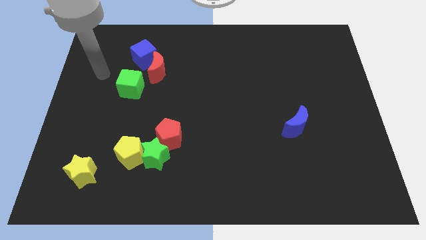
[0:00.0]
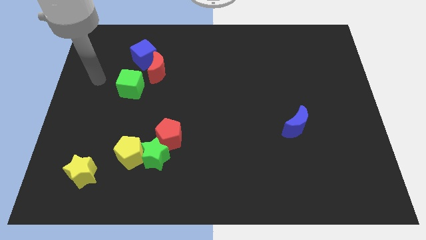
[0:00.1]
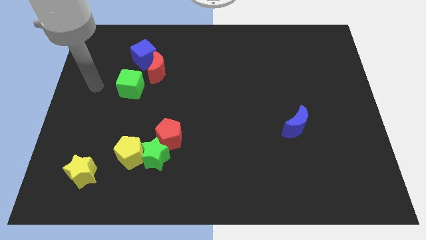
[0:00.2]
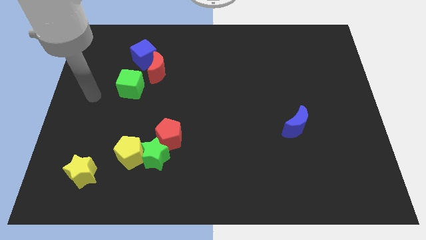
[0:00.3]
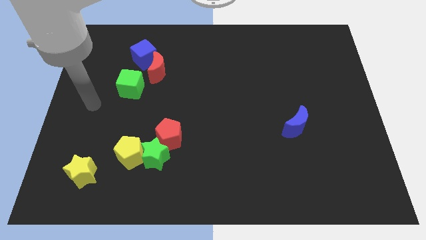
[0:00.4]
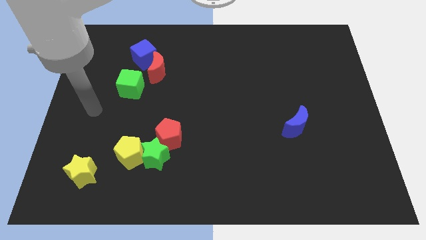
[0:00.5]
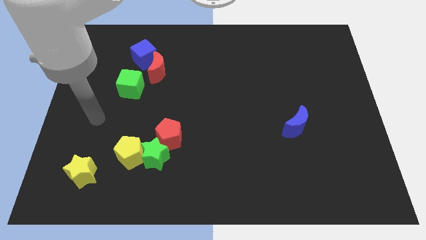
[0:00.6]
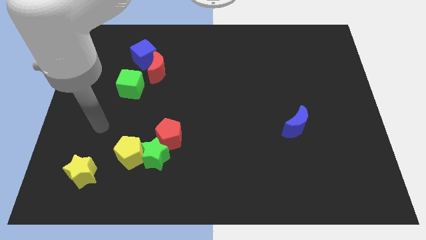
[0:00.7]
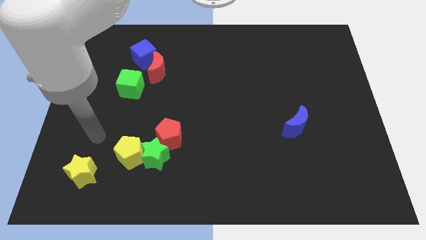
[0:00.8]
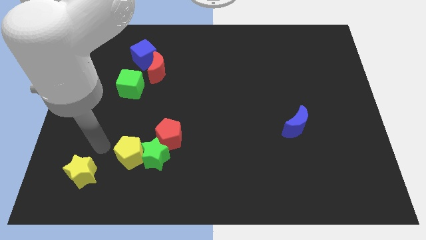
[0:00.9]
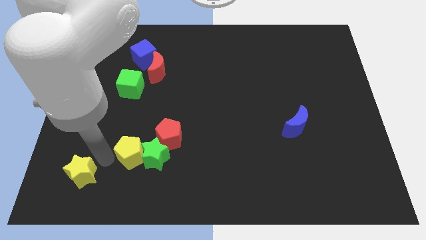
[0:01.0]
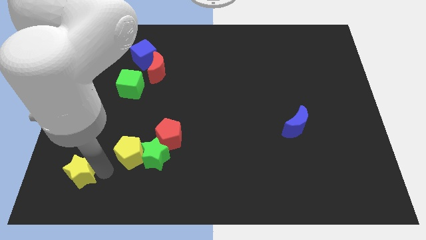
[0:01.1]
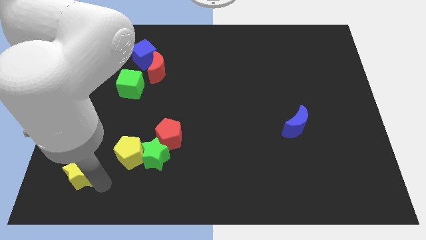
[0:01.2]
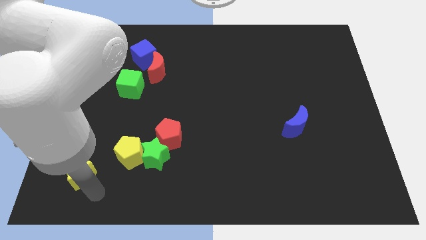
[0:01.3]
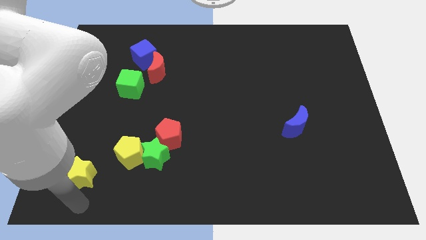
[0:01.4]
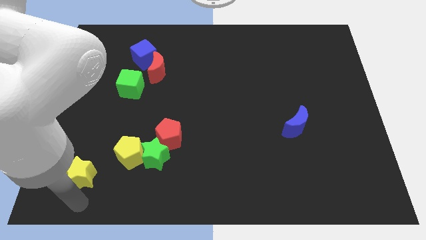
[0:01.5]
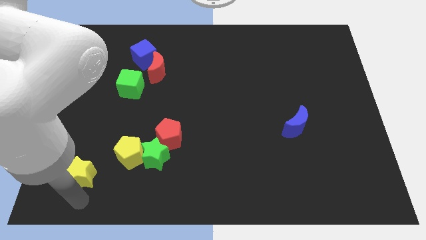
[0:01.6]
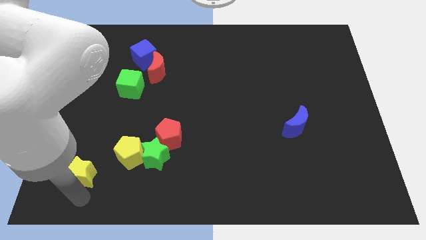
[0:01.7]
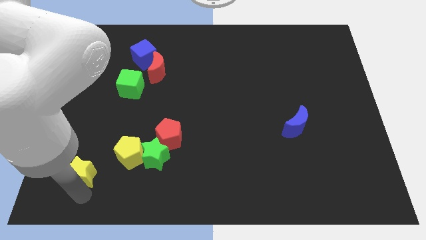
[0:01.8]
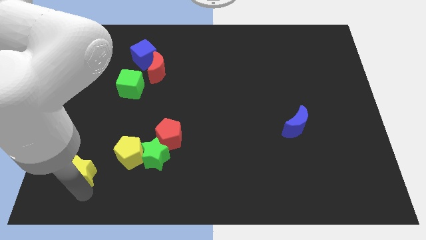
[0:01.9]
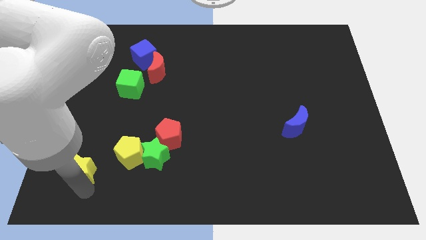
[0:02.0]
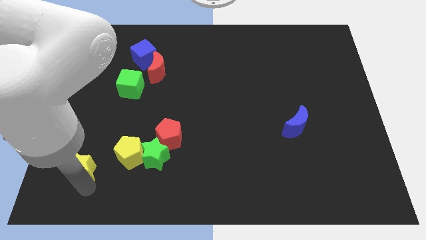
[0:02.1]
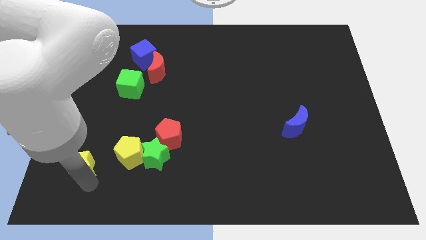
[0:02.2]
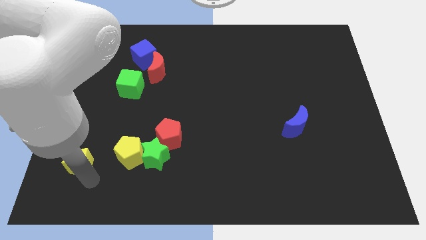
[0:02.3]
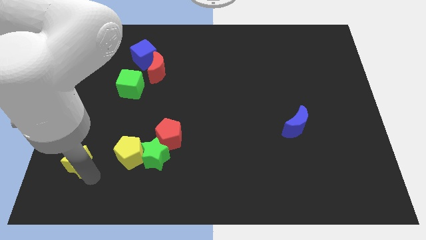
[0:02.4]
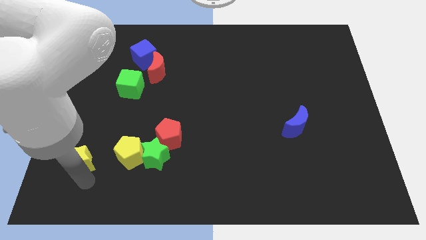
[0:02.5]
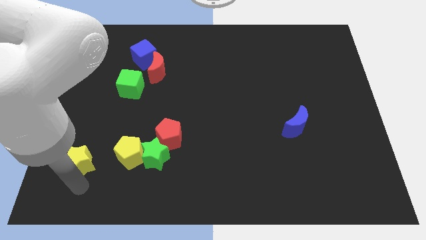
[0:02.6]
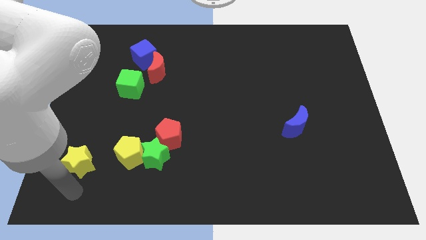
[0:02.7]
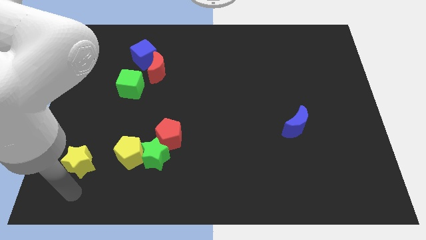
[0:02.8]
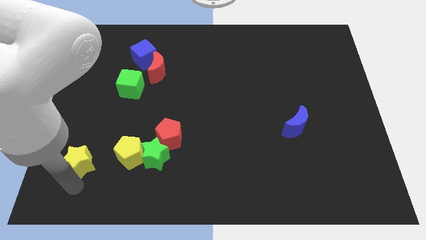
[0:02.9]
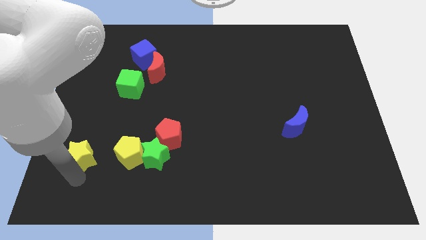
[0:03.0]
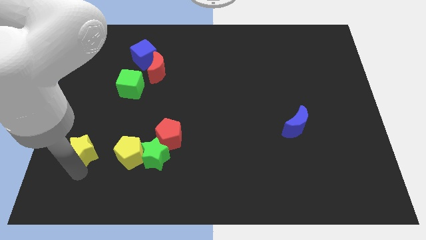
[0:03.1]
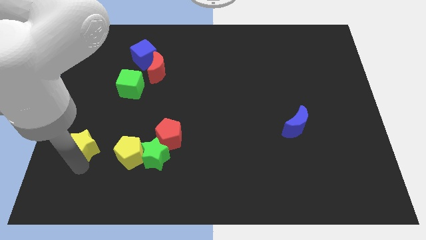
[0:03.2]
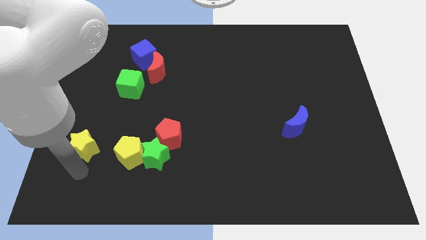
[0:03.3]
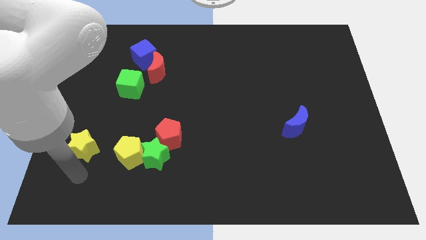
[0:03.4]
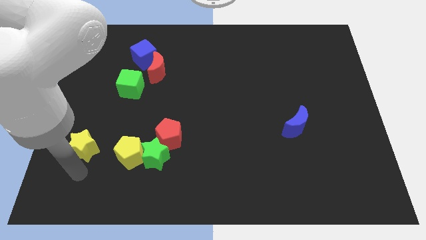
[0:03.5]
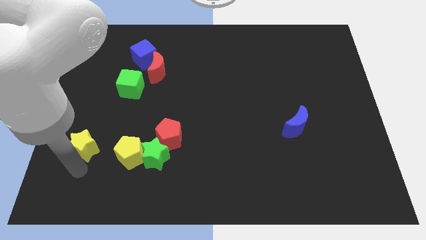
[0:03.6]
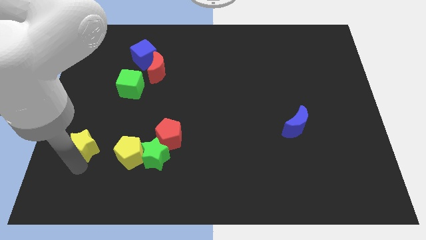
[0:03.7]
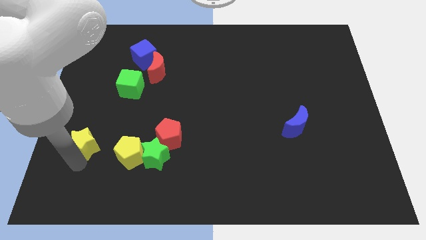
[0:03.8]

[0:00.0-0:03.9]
slide the yellow star a little bit up

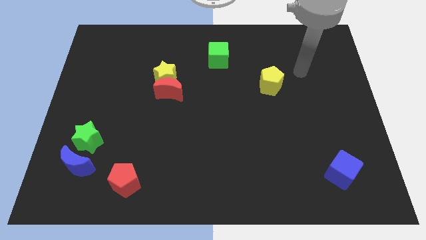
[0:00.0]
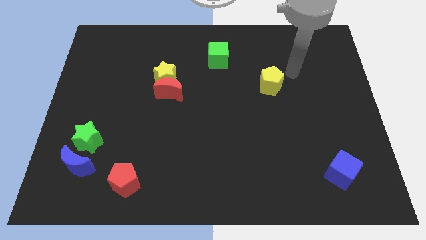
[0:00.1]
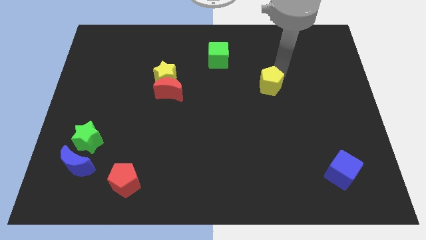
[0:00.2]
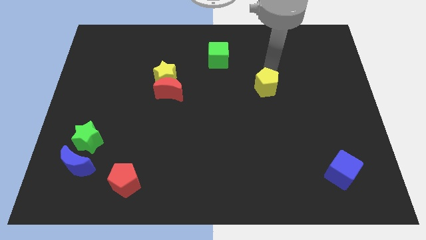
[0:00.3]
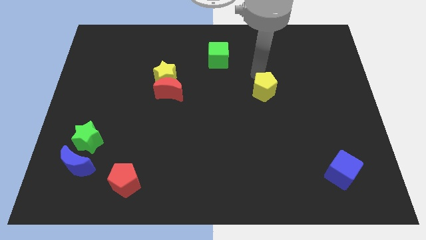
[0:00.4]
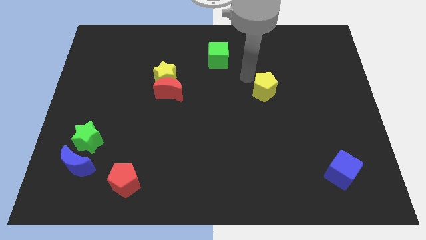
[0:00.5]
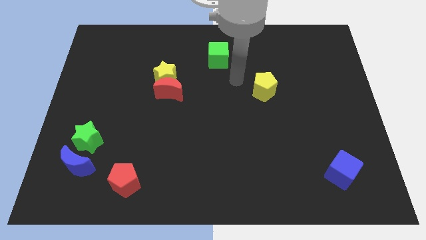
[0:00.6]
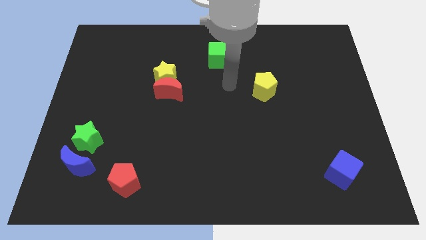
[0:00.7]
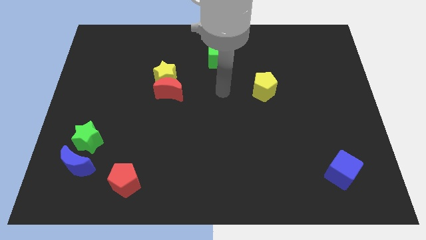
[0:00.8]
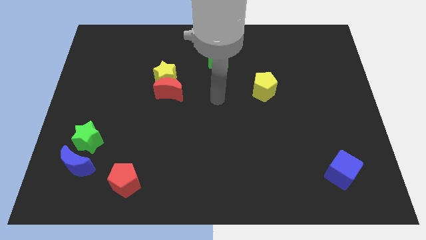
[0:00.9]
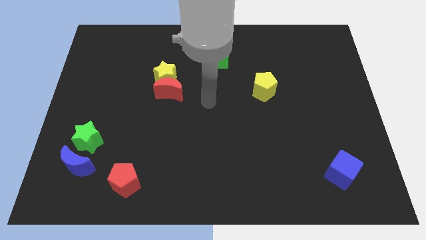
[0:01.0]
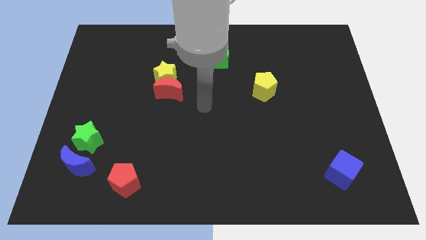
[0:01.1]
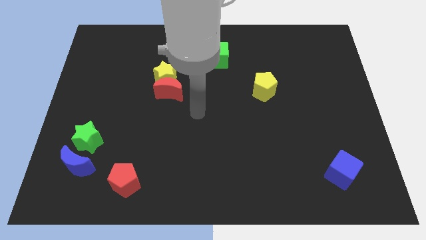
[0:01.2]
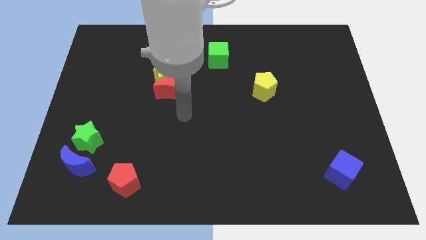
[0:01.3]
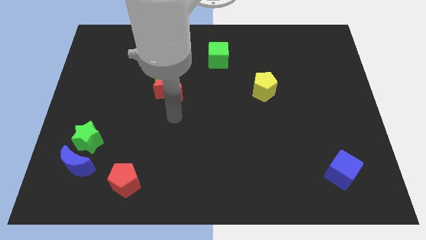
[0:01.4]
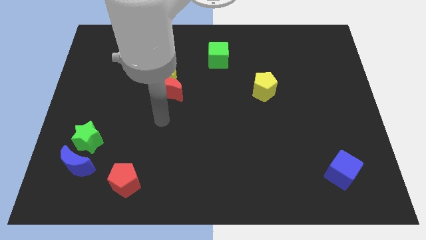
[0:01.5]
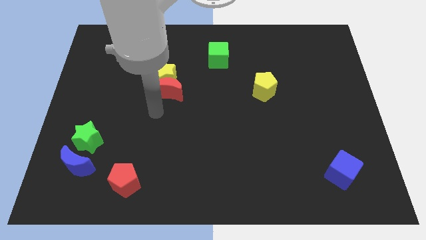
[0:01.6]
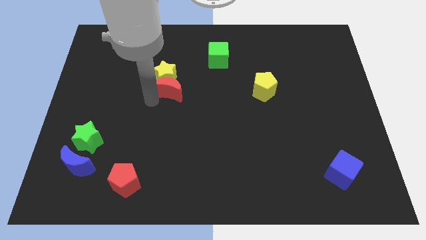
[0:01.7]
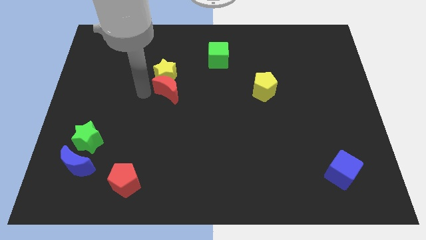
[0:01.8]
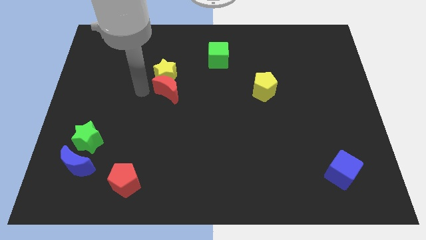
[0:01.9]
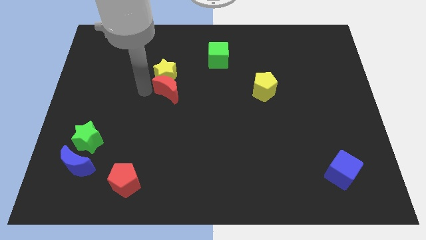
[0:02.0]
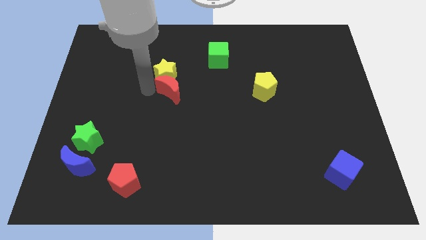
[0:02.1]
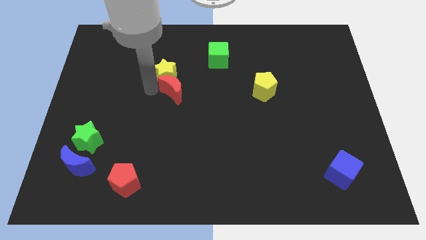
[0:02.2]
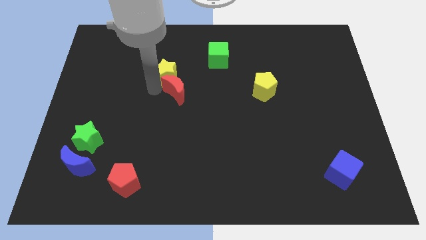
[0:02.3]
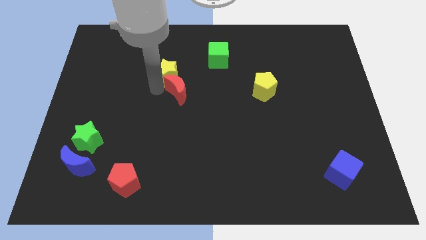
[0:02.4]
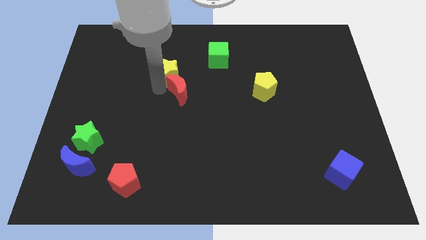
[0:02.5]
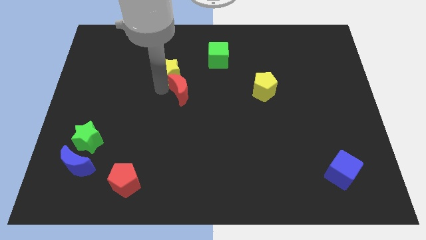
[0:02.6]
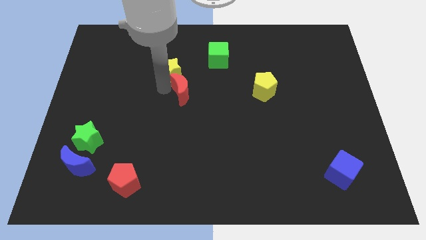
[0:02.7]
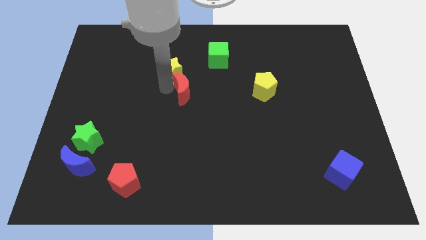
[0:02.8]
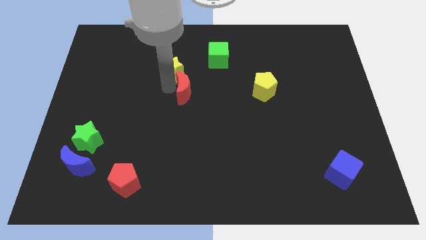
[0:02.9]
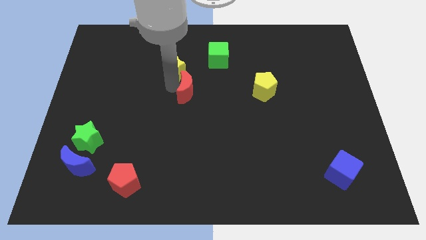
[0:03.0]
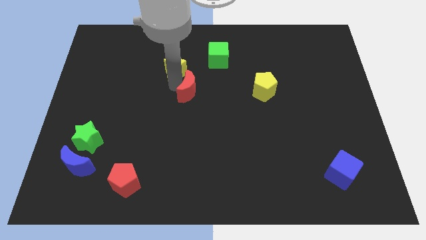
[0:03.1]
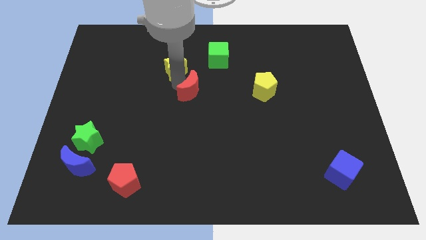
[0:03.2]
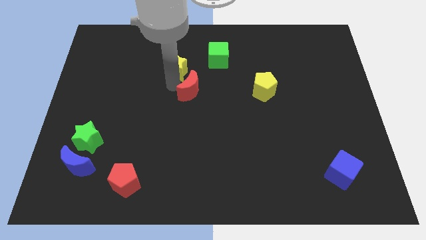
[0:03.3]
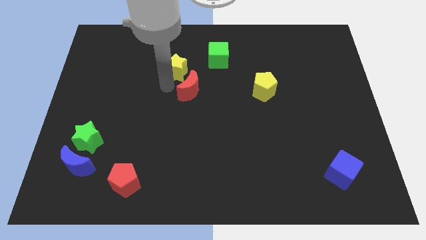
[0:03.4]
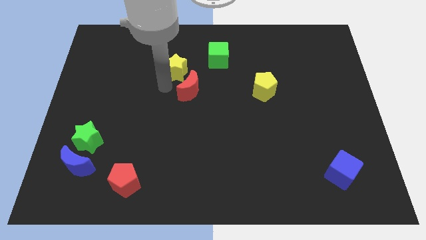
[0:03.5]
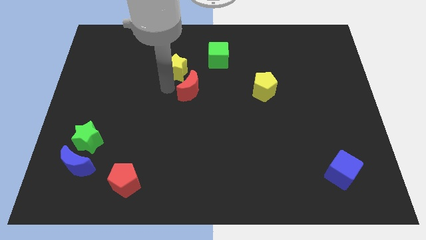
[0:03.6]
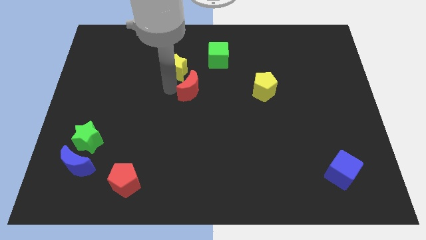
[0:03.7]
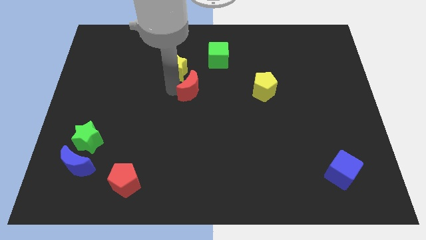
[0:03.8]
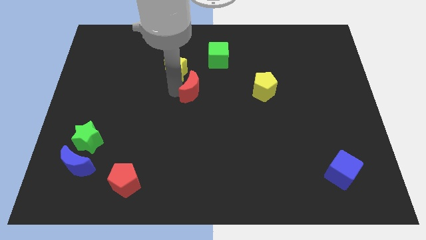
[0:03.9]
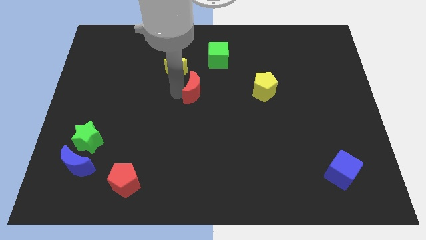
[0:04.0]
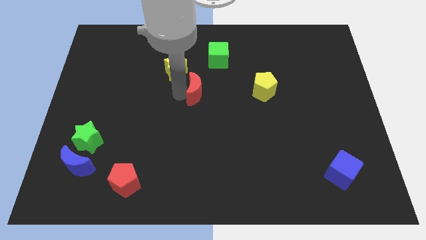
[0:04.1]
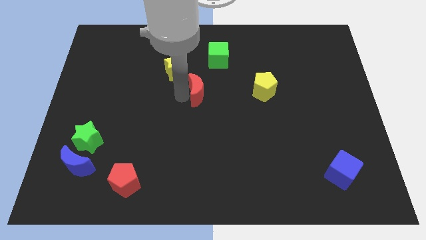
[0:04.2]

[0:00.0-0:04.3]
push the red moon somewhat to the right
